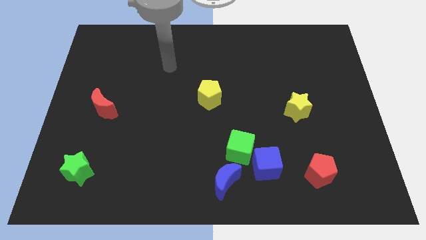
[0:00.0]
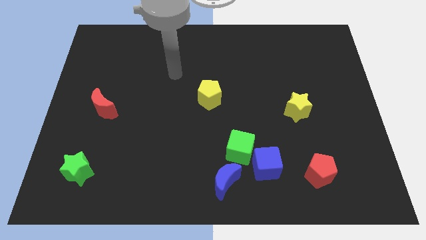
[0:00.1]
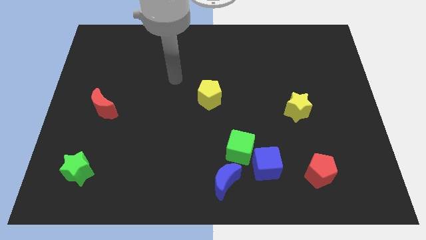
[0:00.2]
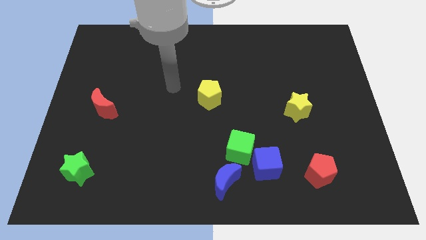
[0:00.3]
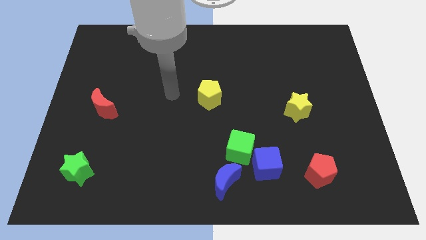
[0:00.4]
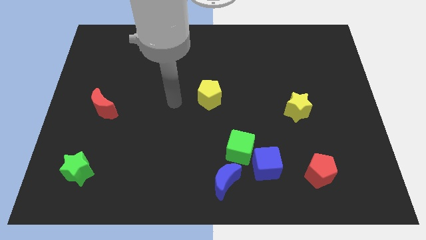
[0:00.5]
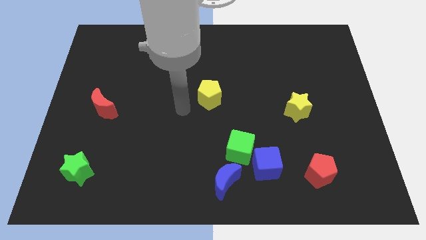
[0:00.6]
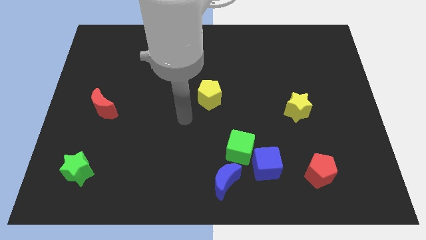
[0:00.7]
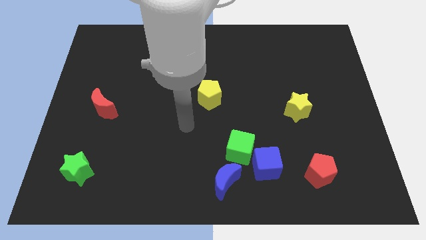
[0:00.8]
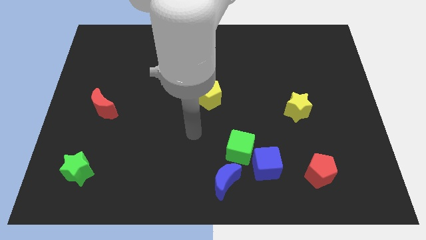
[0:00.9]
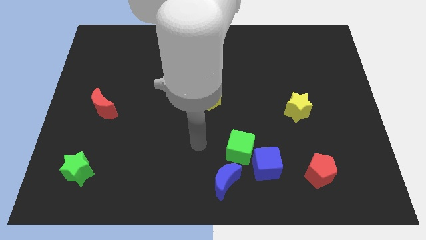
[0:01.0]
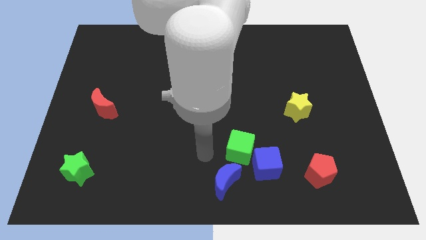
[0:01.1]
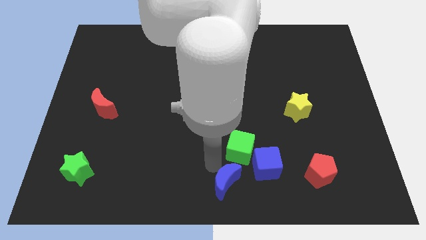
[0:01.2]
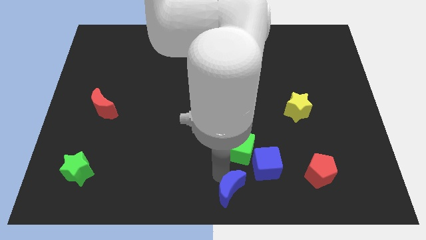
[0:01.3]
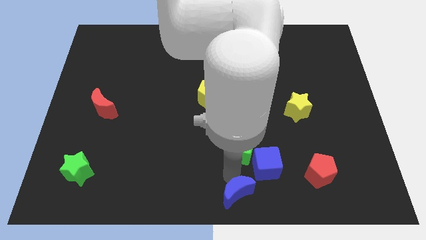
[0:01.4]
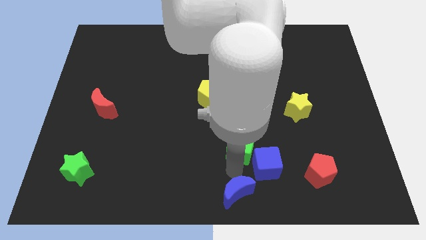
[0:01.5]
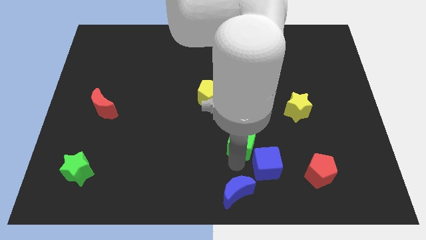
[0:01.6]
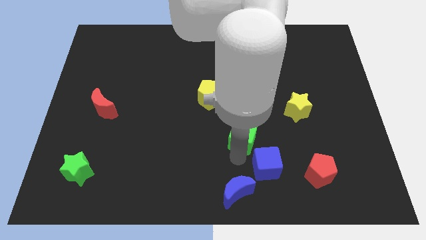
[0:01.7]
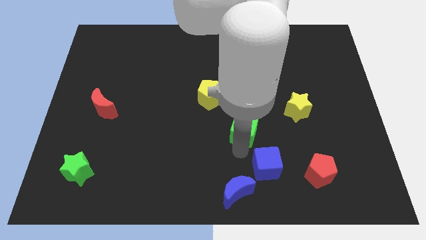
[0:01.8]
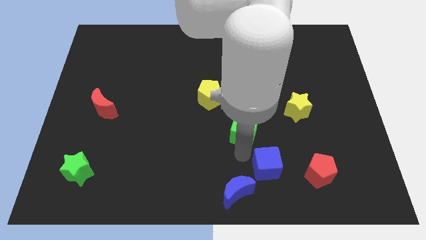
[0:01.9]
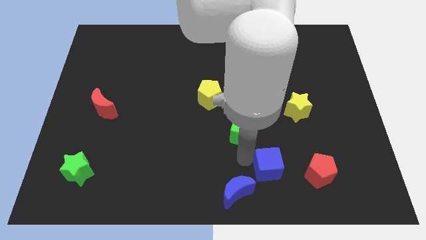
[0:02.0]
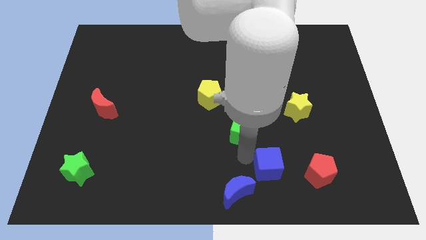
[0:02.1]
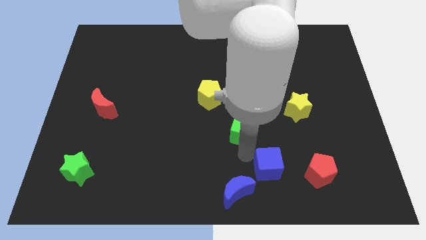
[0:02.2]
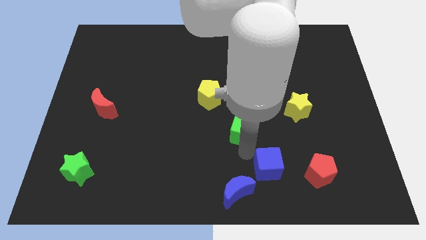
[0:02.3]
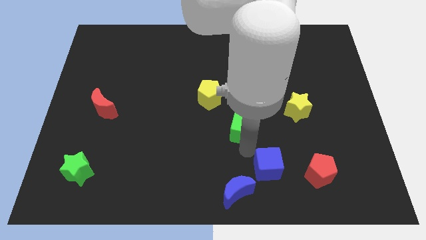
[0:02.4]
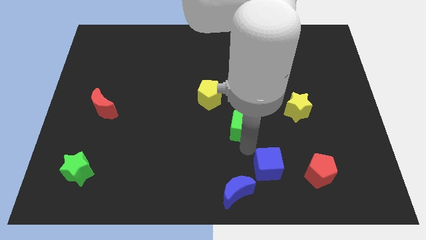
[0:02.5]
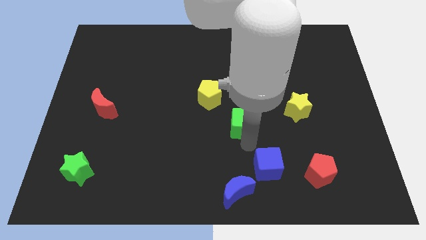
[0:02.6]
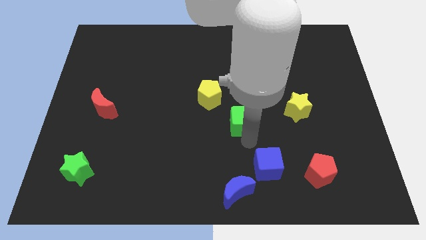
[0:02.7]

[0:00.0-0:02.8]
move the green cube a little upwards

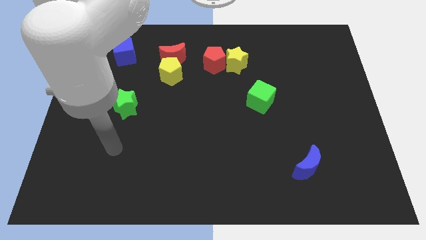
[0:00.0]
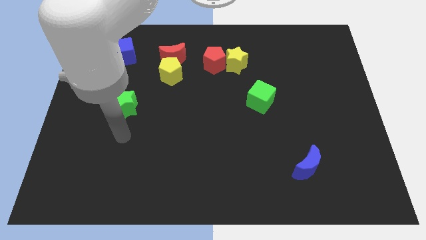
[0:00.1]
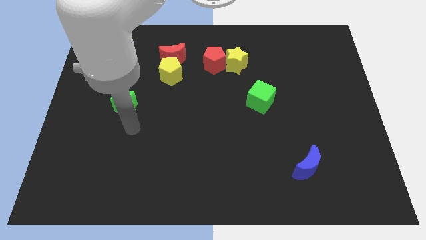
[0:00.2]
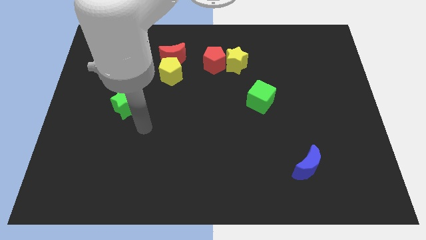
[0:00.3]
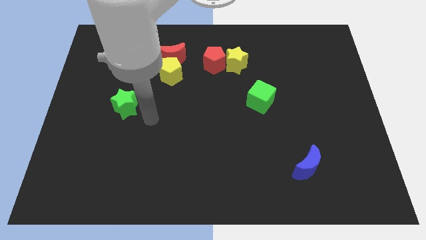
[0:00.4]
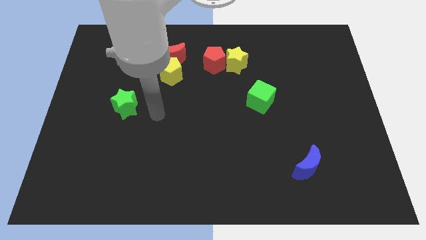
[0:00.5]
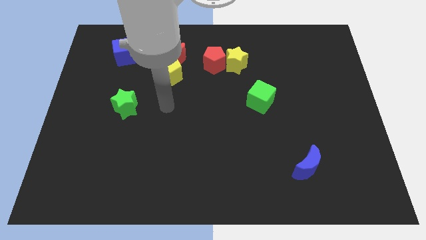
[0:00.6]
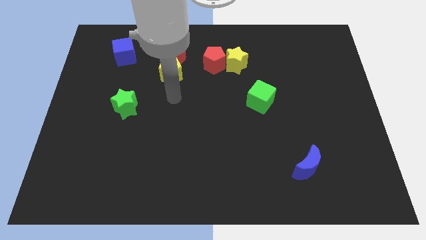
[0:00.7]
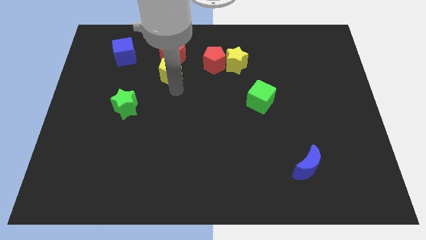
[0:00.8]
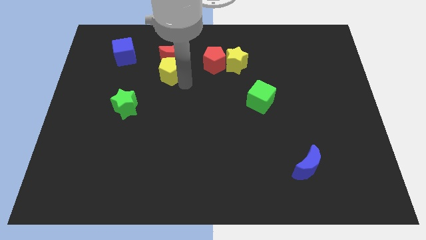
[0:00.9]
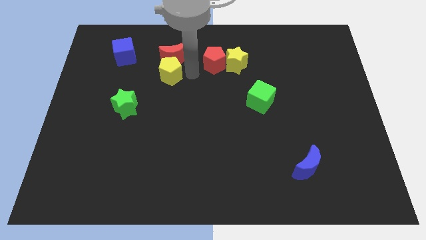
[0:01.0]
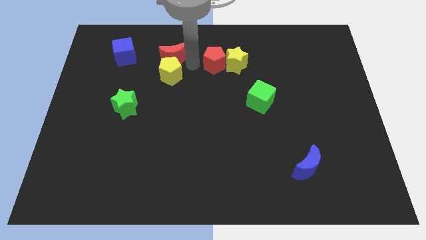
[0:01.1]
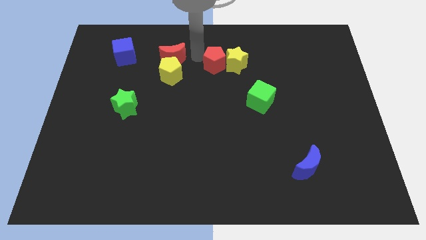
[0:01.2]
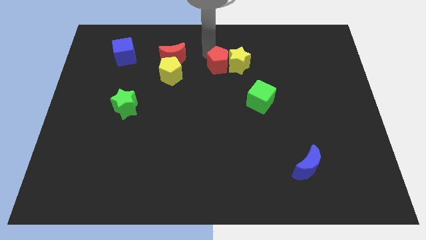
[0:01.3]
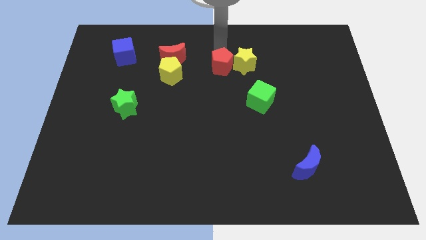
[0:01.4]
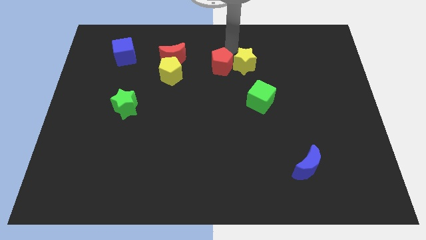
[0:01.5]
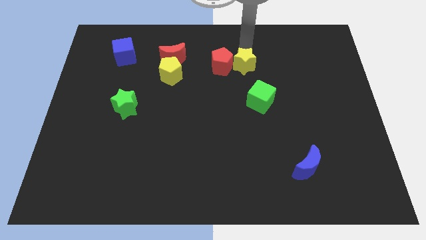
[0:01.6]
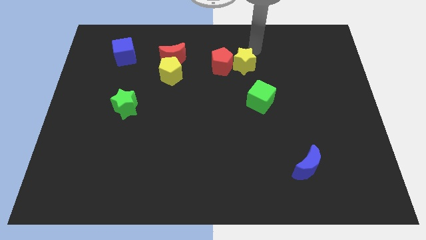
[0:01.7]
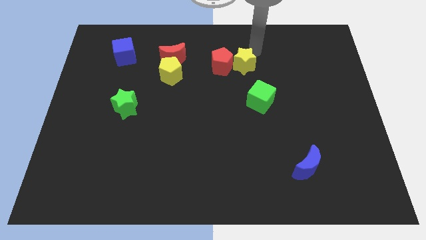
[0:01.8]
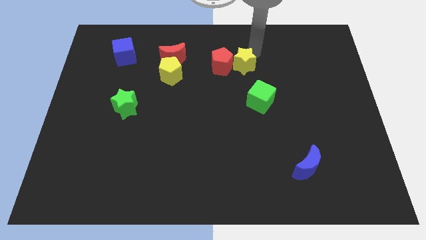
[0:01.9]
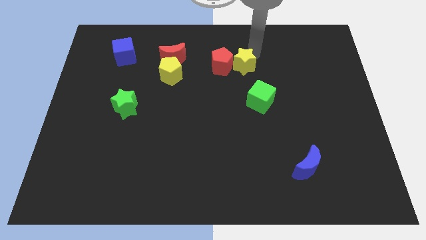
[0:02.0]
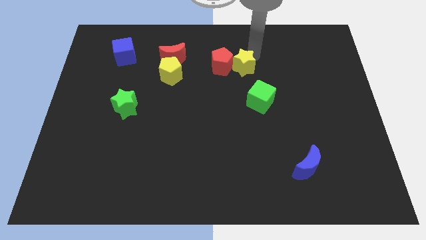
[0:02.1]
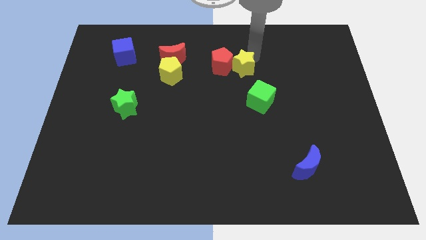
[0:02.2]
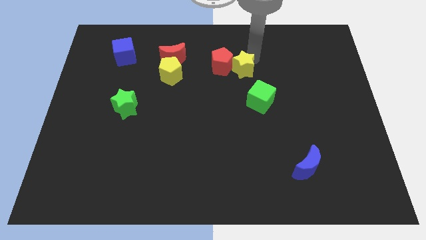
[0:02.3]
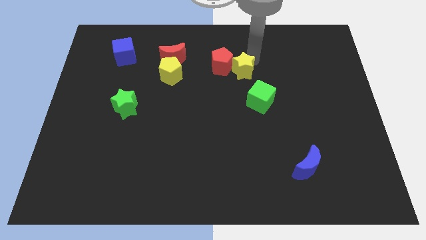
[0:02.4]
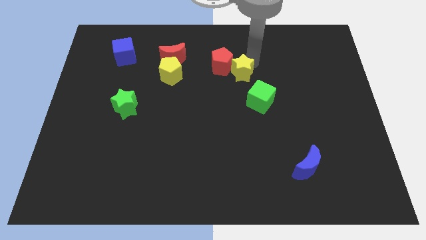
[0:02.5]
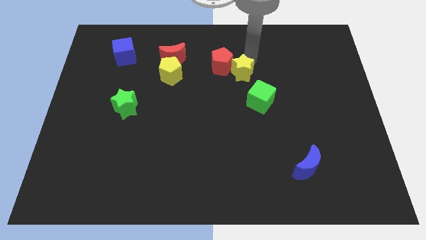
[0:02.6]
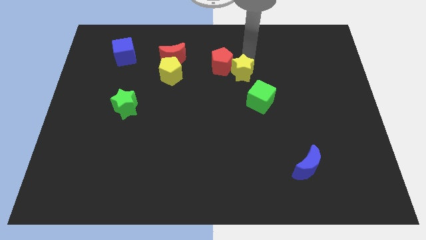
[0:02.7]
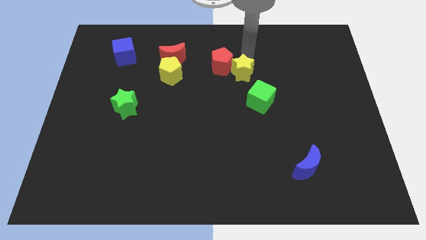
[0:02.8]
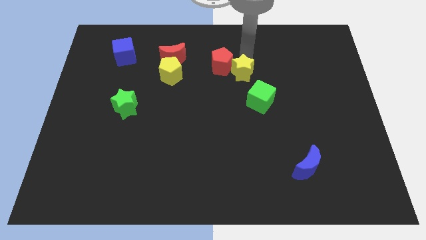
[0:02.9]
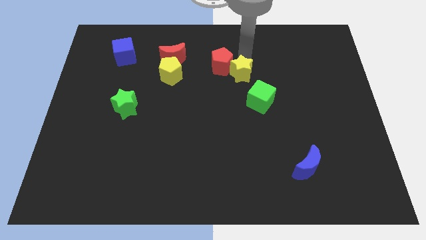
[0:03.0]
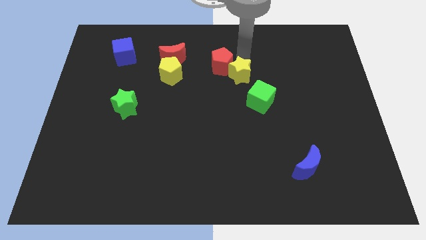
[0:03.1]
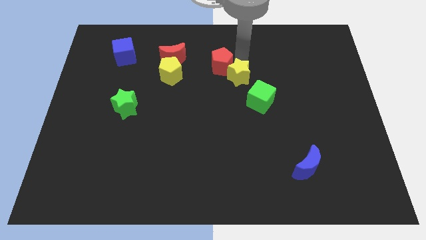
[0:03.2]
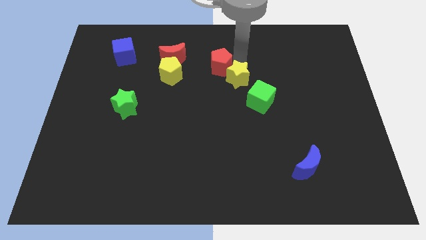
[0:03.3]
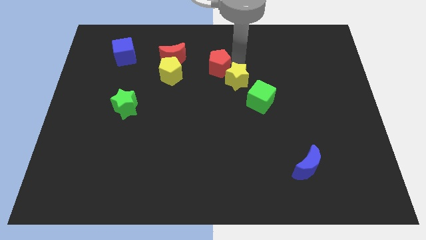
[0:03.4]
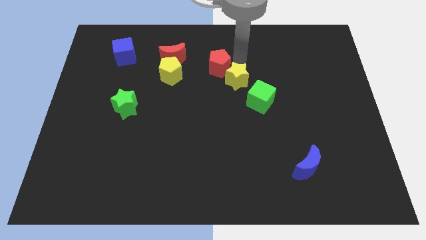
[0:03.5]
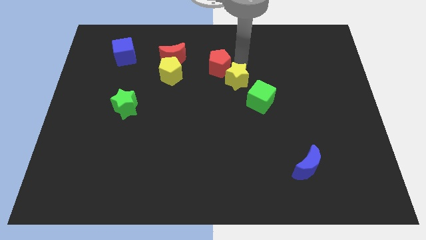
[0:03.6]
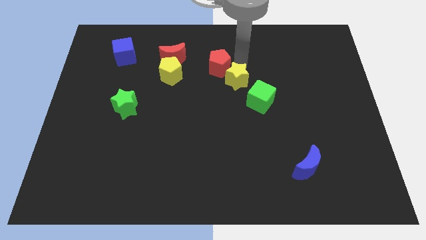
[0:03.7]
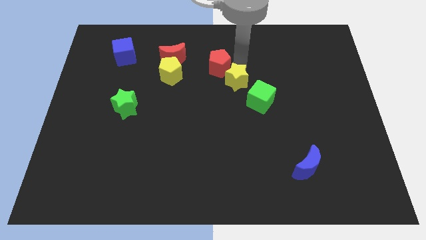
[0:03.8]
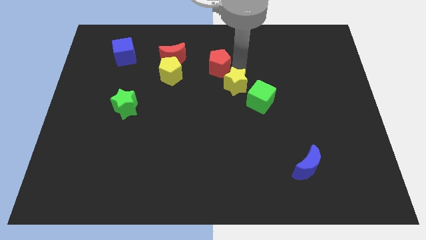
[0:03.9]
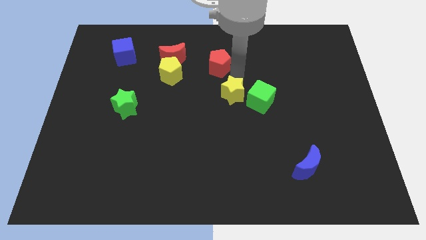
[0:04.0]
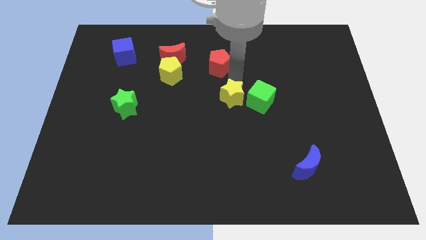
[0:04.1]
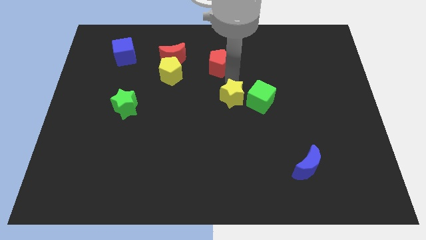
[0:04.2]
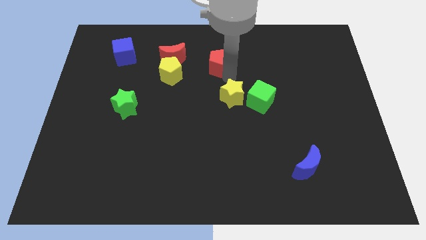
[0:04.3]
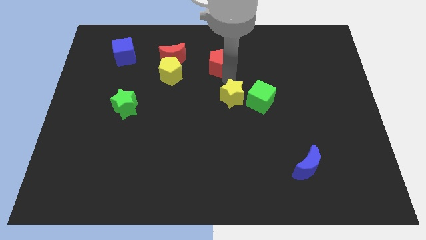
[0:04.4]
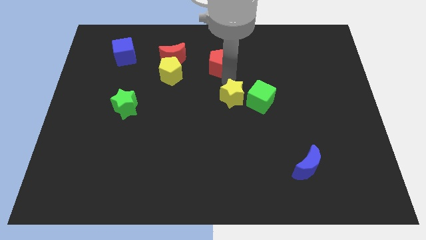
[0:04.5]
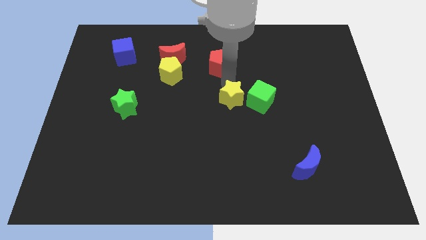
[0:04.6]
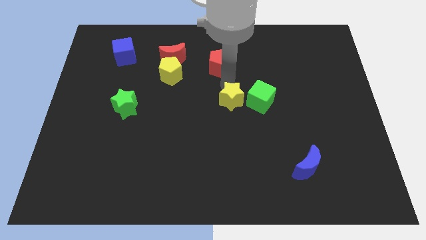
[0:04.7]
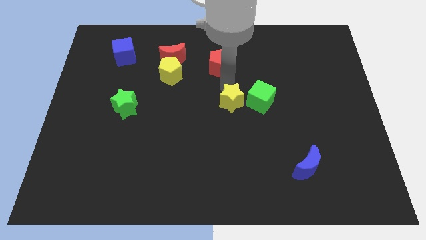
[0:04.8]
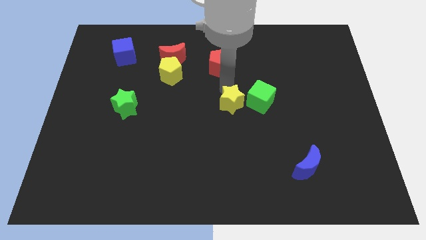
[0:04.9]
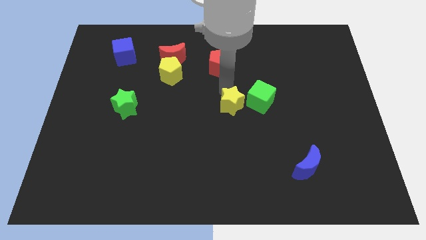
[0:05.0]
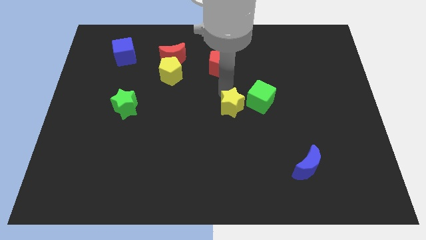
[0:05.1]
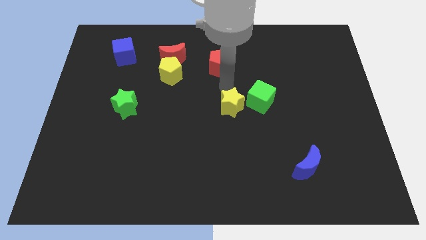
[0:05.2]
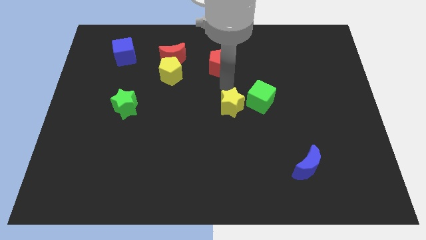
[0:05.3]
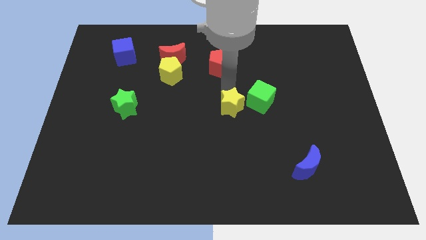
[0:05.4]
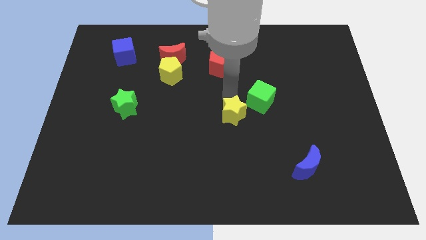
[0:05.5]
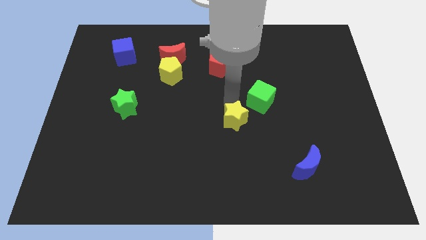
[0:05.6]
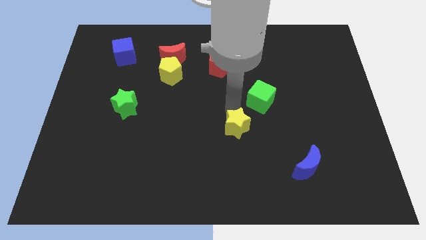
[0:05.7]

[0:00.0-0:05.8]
slide the yellow star down
